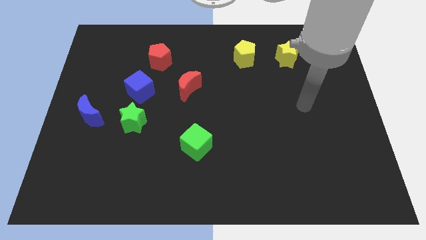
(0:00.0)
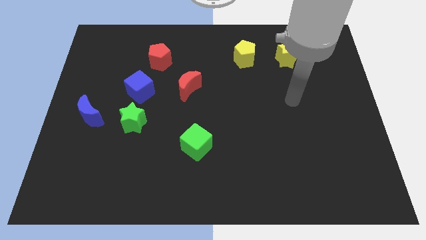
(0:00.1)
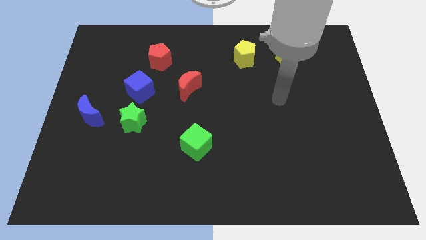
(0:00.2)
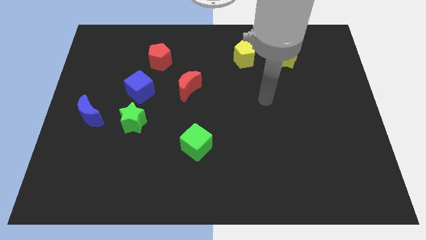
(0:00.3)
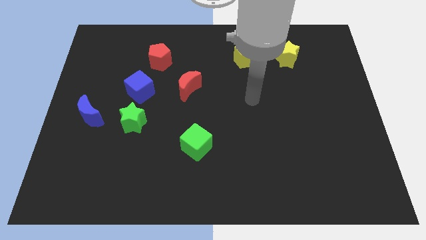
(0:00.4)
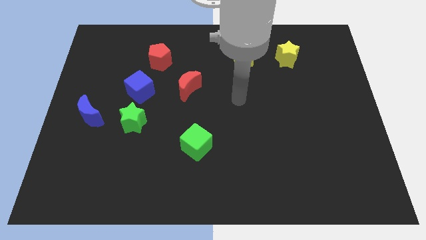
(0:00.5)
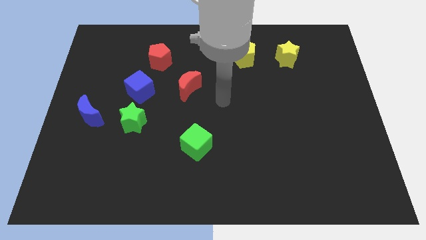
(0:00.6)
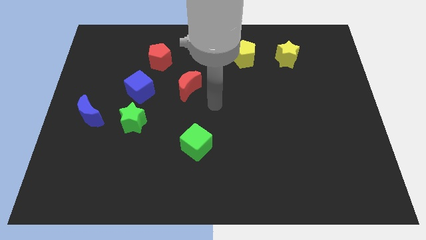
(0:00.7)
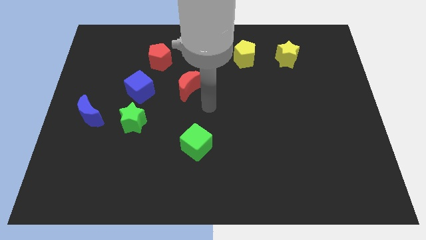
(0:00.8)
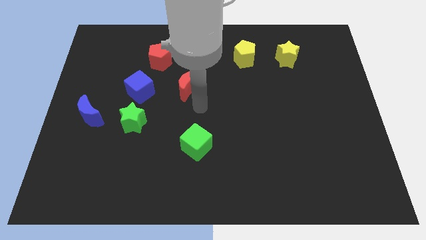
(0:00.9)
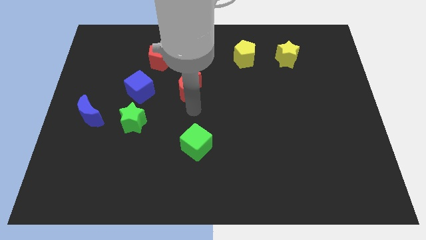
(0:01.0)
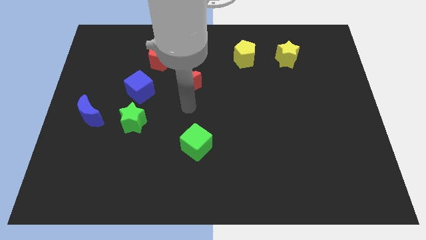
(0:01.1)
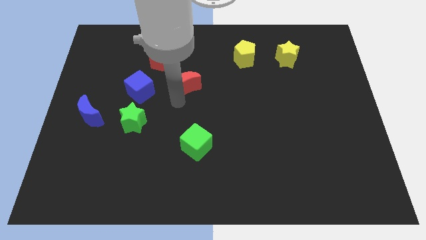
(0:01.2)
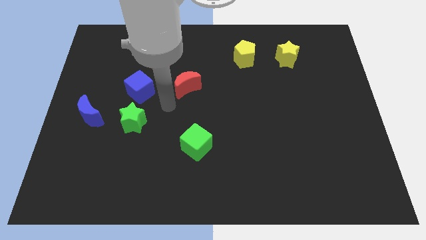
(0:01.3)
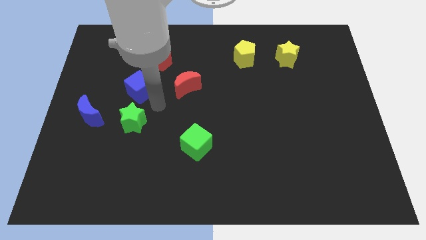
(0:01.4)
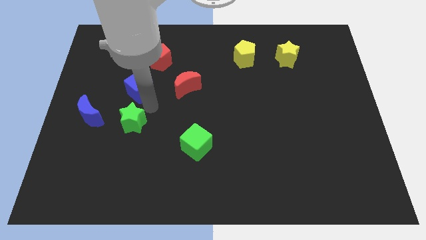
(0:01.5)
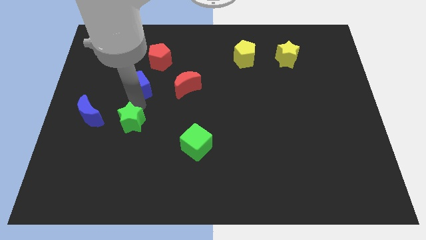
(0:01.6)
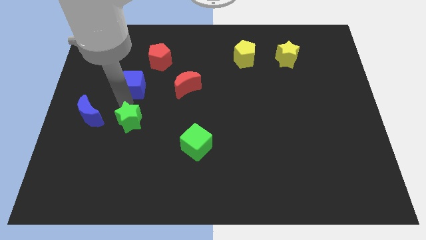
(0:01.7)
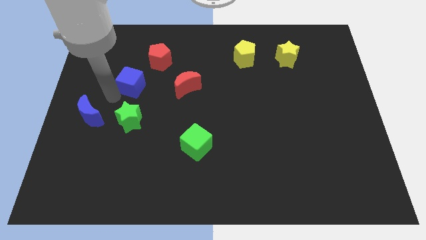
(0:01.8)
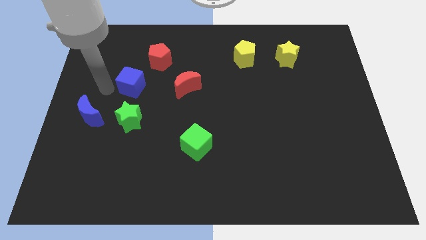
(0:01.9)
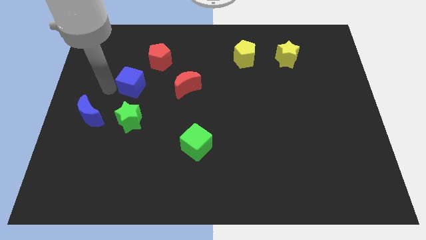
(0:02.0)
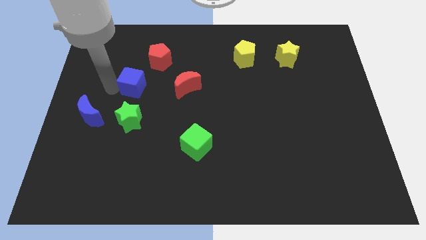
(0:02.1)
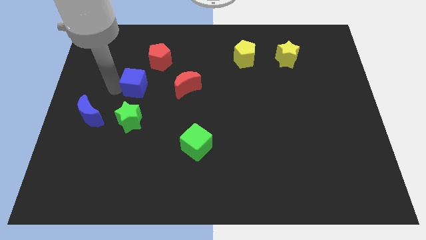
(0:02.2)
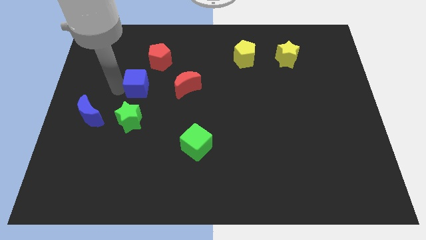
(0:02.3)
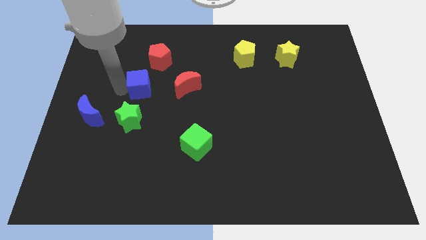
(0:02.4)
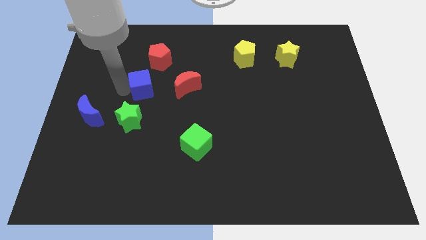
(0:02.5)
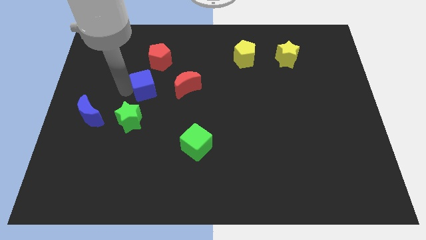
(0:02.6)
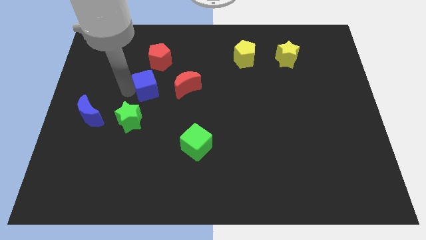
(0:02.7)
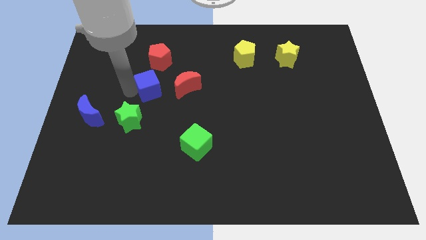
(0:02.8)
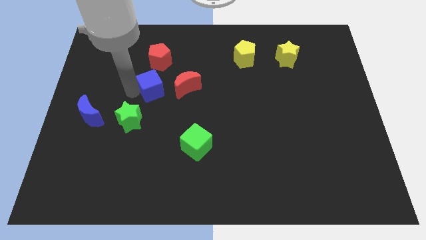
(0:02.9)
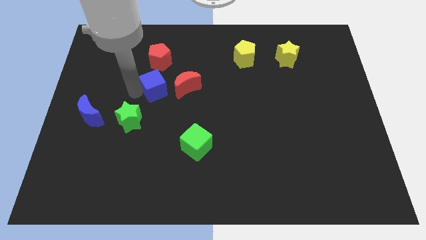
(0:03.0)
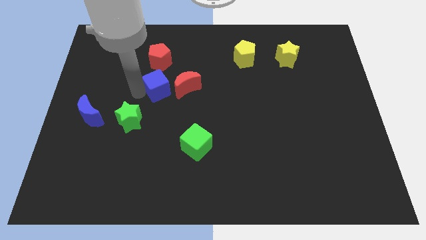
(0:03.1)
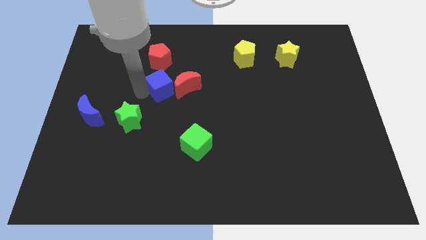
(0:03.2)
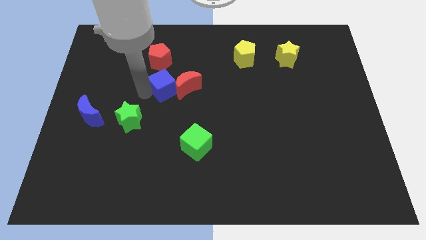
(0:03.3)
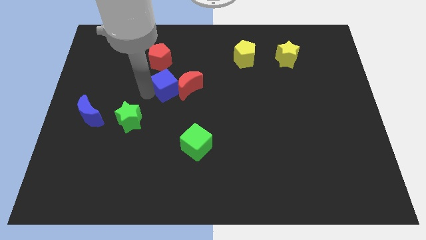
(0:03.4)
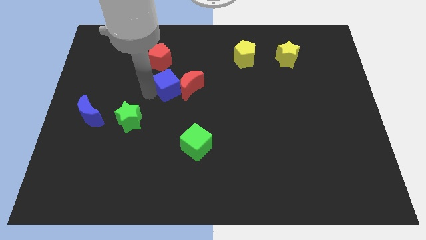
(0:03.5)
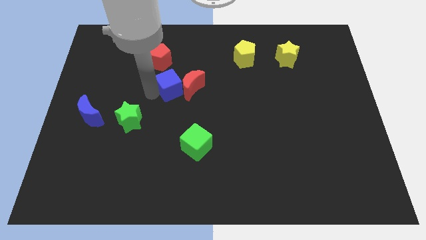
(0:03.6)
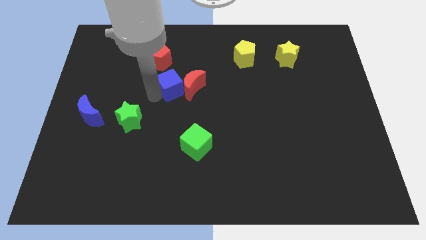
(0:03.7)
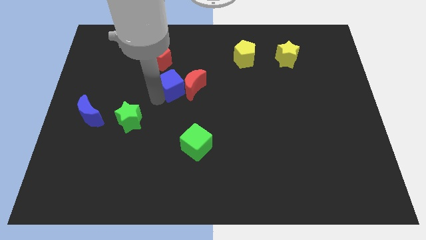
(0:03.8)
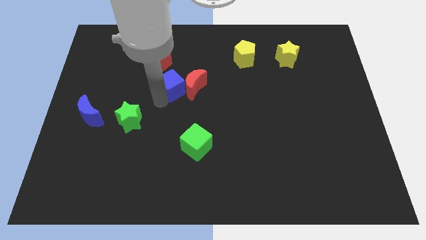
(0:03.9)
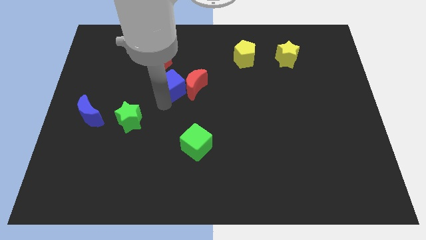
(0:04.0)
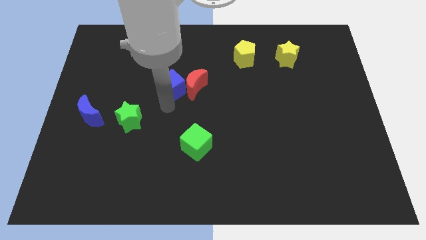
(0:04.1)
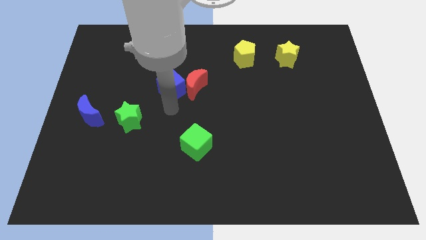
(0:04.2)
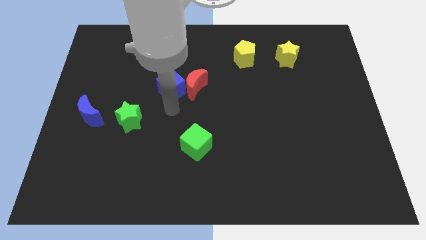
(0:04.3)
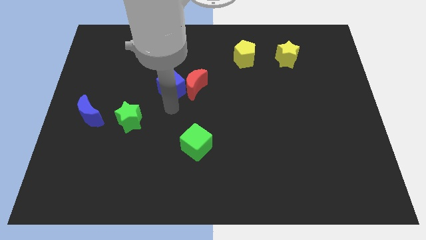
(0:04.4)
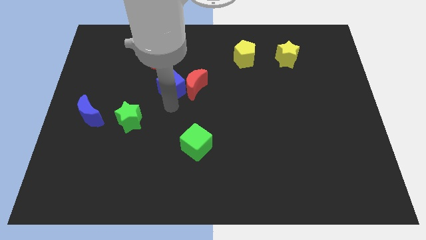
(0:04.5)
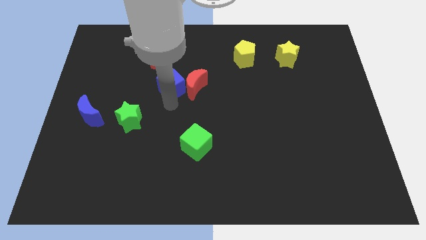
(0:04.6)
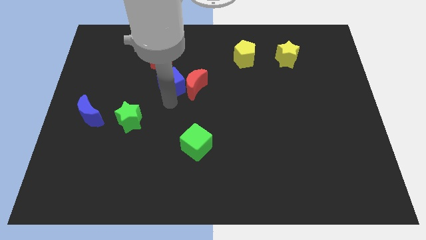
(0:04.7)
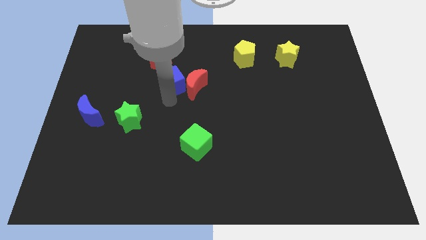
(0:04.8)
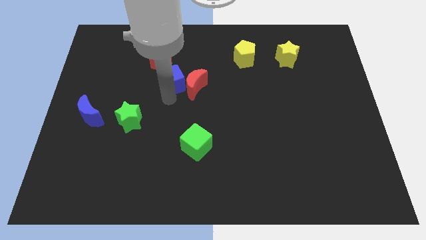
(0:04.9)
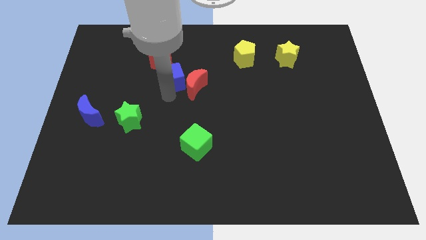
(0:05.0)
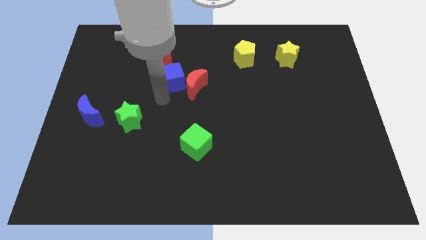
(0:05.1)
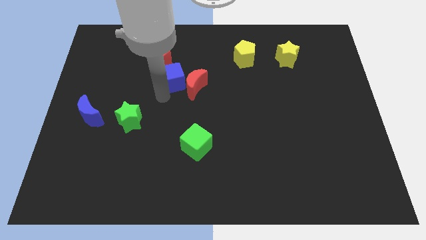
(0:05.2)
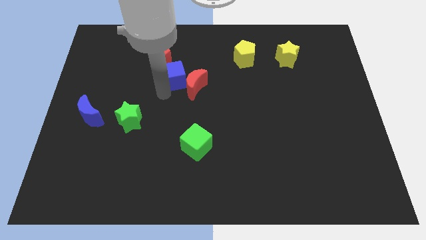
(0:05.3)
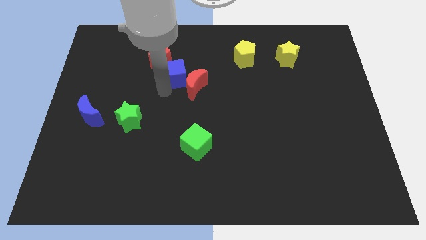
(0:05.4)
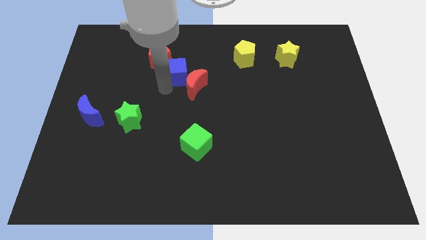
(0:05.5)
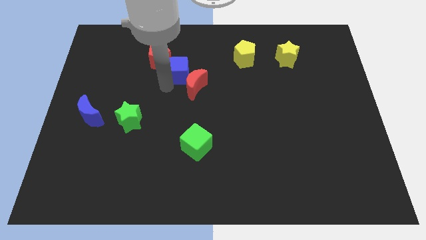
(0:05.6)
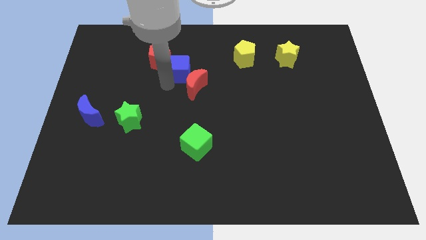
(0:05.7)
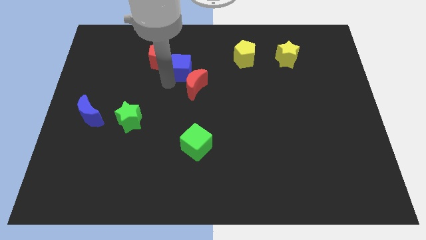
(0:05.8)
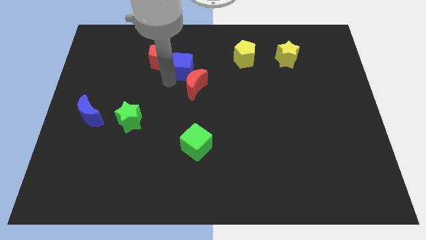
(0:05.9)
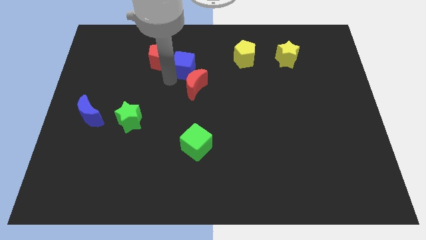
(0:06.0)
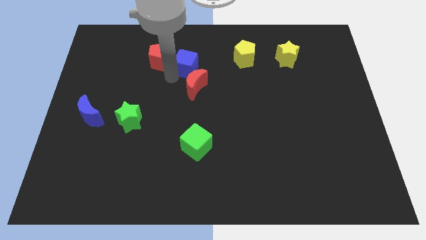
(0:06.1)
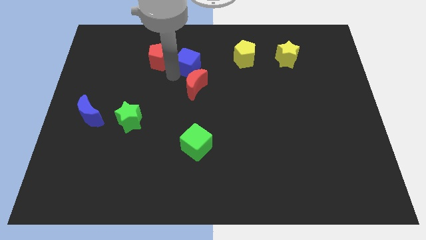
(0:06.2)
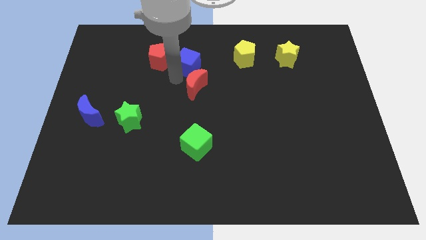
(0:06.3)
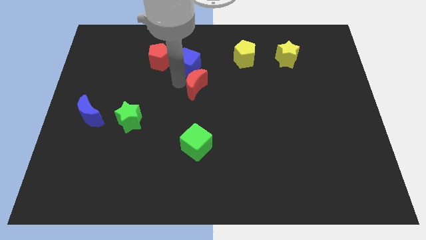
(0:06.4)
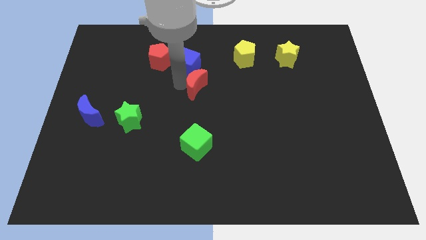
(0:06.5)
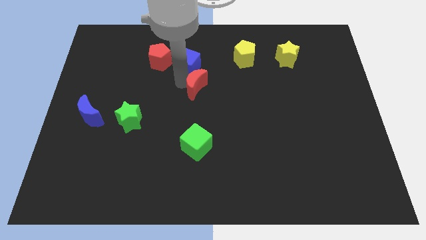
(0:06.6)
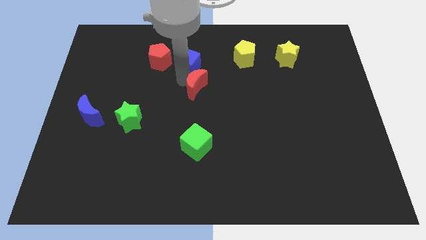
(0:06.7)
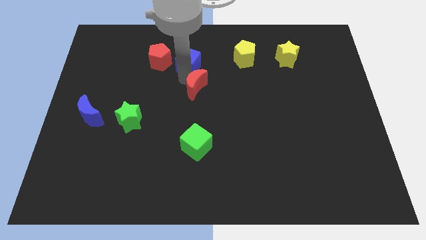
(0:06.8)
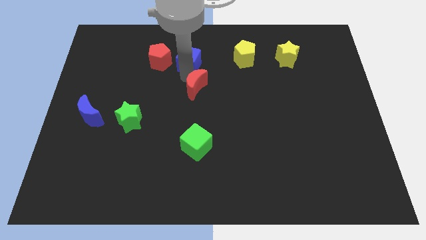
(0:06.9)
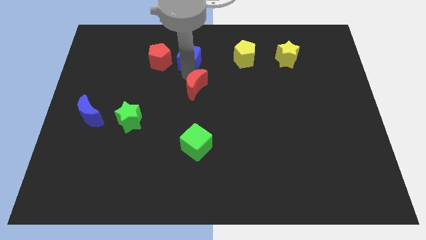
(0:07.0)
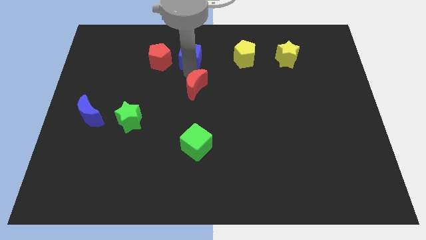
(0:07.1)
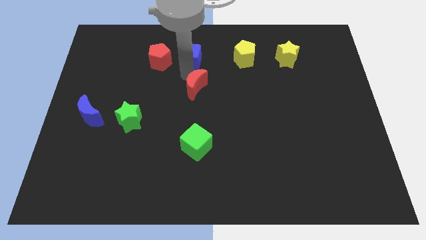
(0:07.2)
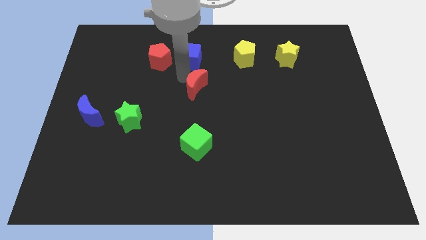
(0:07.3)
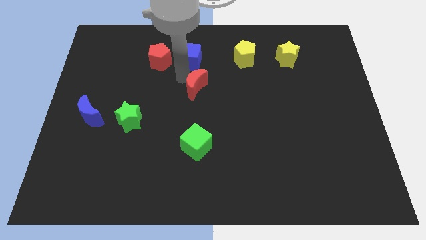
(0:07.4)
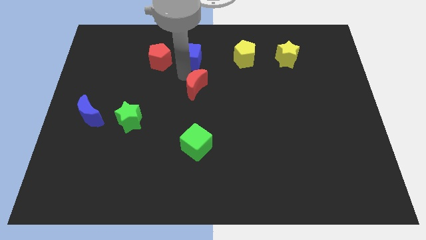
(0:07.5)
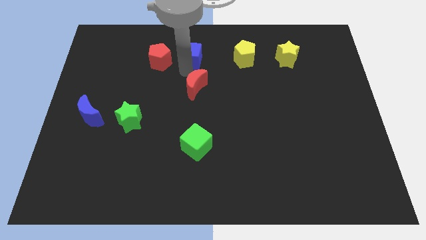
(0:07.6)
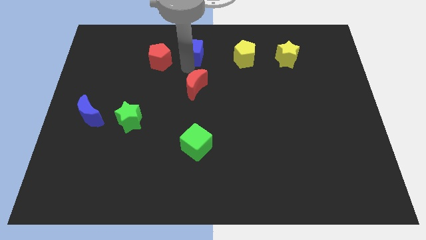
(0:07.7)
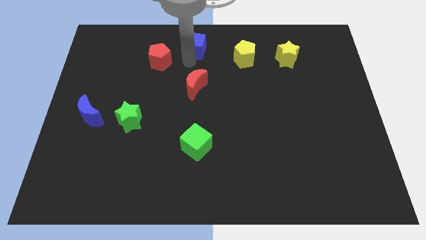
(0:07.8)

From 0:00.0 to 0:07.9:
push the blue cube to the top side
